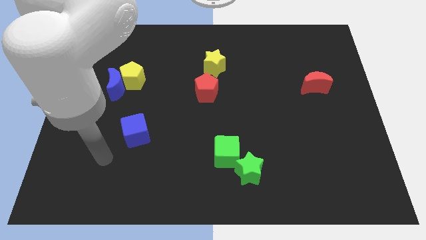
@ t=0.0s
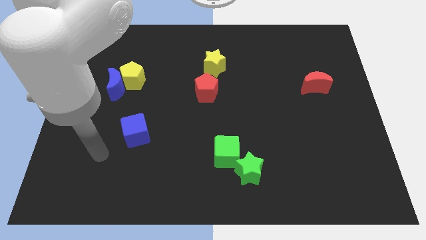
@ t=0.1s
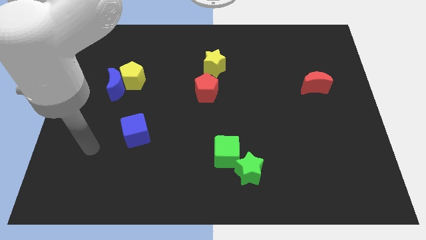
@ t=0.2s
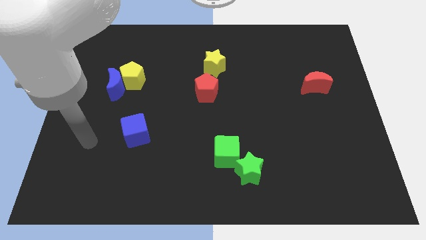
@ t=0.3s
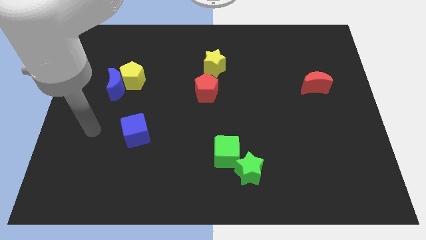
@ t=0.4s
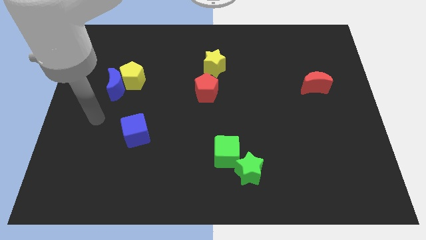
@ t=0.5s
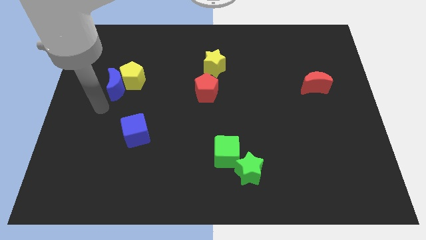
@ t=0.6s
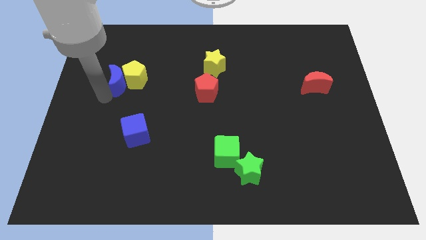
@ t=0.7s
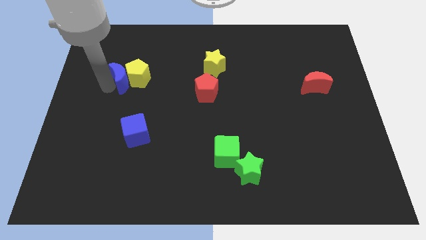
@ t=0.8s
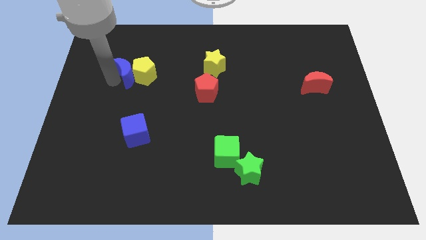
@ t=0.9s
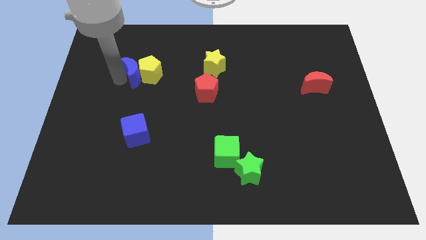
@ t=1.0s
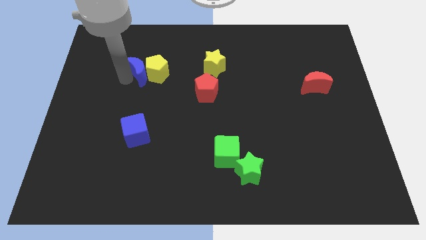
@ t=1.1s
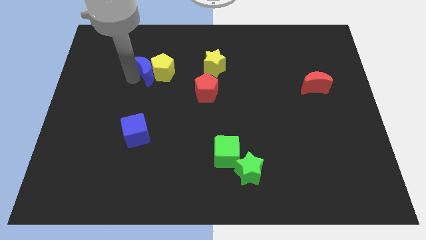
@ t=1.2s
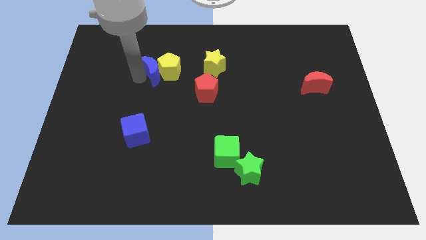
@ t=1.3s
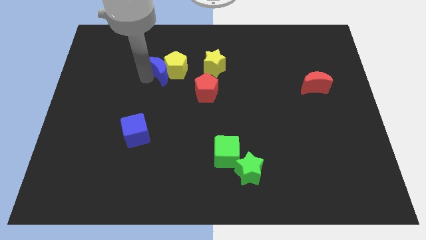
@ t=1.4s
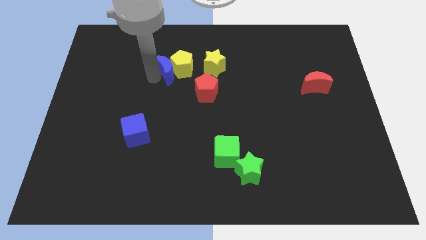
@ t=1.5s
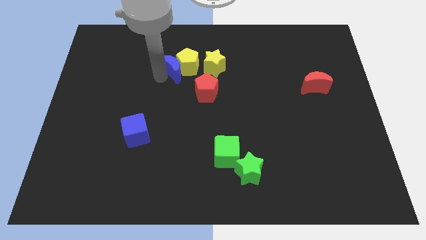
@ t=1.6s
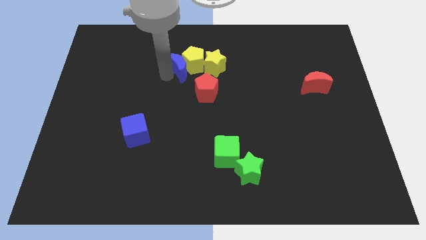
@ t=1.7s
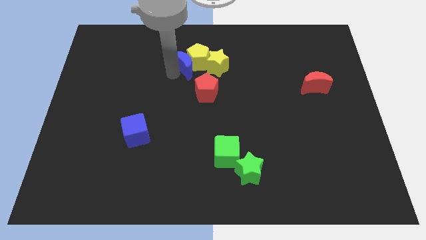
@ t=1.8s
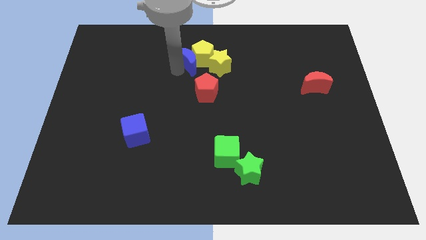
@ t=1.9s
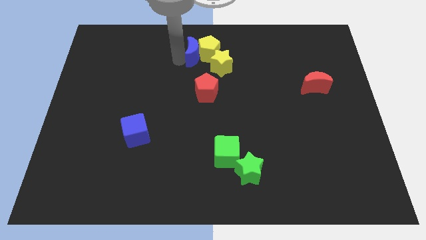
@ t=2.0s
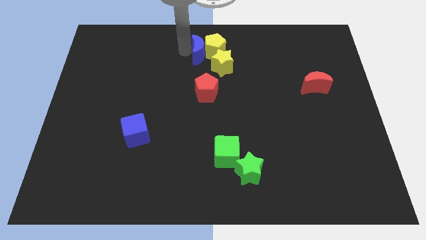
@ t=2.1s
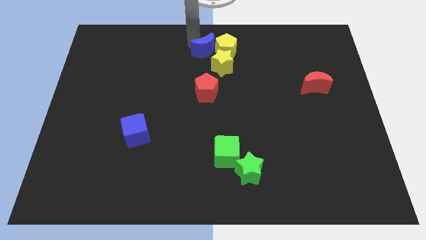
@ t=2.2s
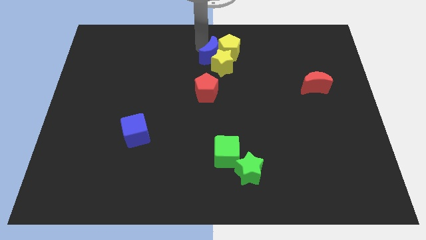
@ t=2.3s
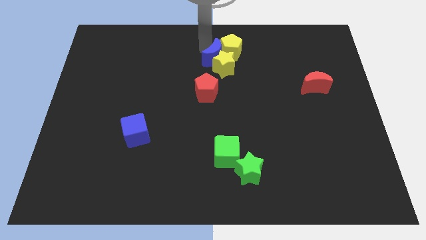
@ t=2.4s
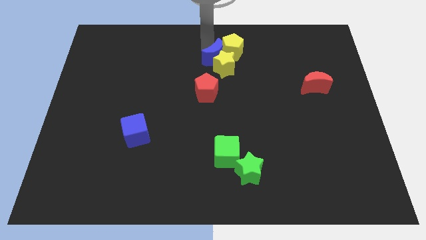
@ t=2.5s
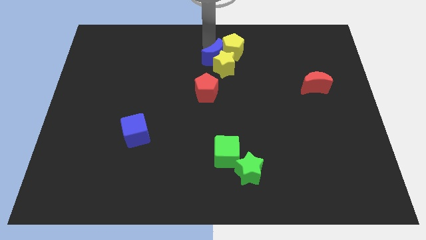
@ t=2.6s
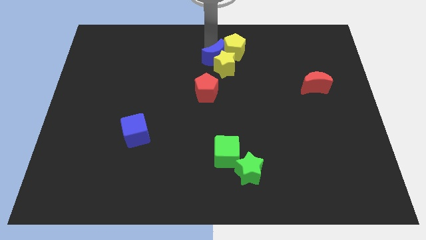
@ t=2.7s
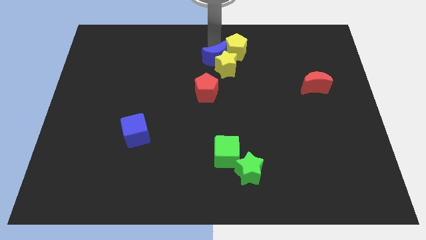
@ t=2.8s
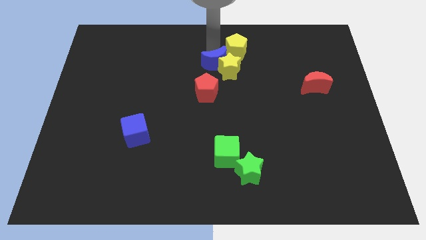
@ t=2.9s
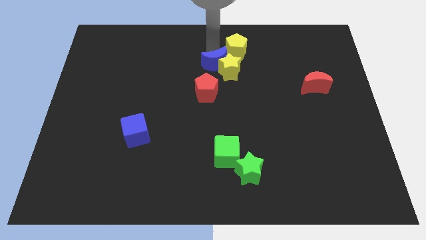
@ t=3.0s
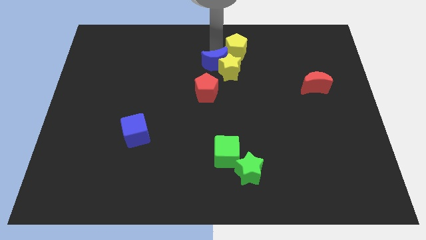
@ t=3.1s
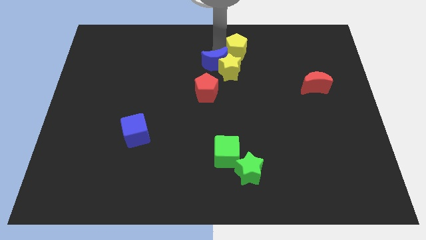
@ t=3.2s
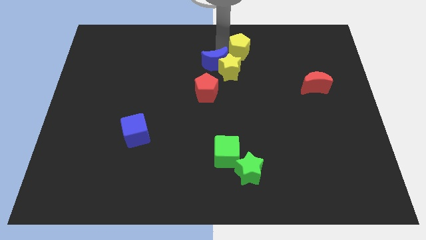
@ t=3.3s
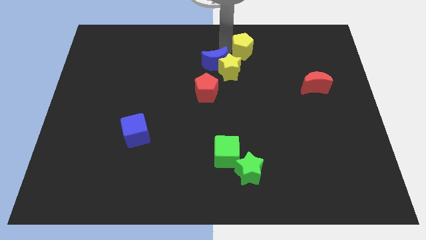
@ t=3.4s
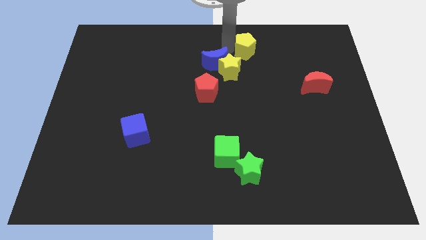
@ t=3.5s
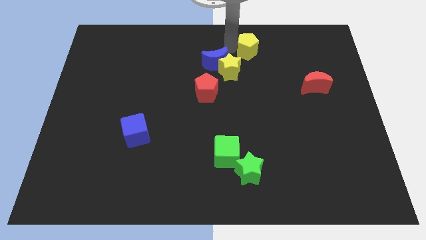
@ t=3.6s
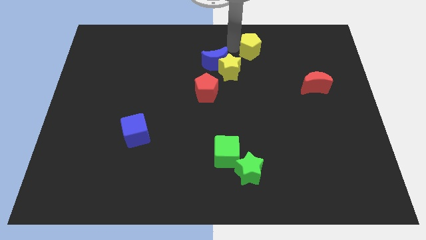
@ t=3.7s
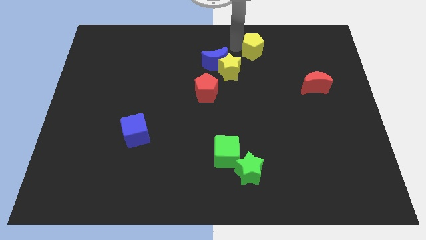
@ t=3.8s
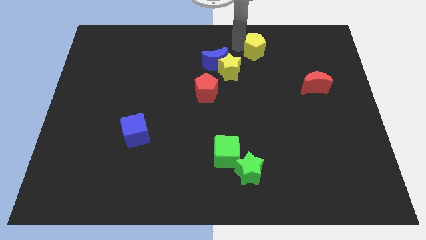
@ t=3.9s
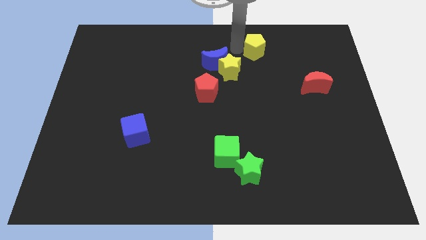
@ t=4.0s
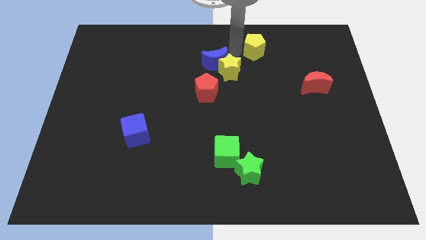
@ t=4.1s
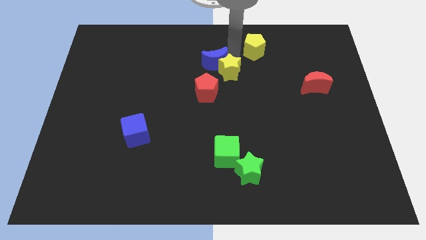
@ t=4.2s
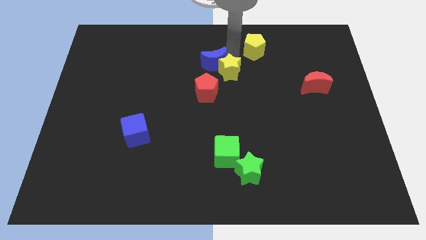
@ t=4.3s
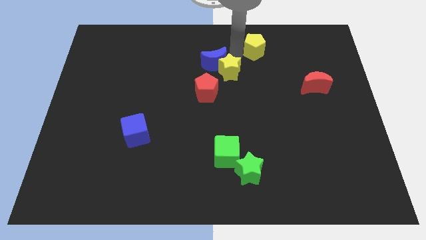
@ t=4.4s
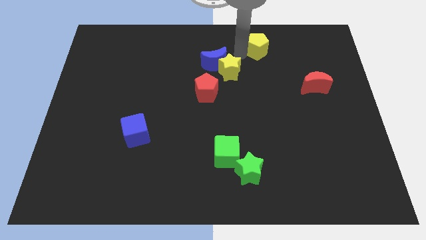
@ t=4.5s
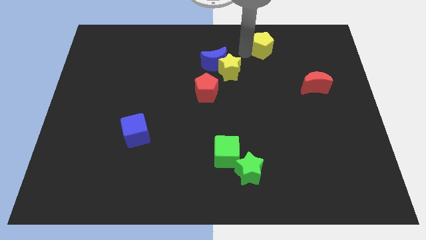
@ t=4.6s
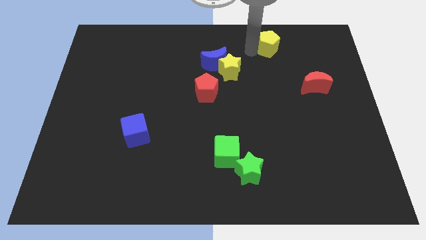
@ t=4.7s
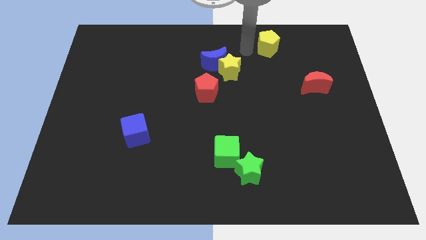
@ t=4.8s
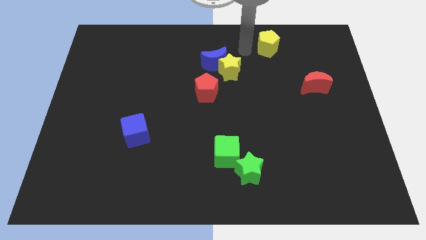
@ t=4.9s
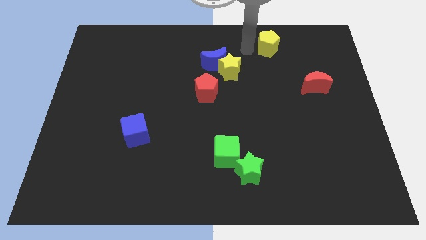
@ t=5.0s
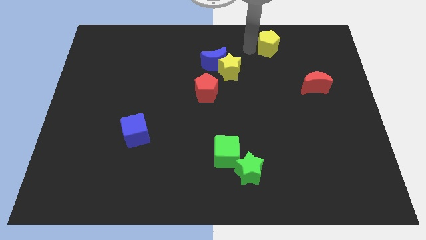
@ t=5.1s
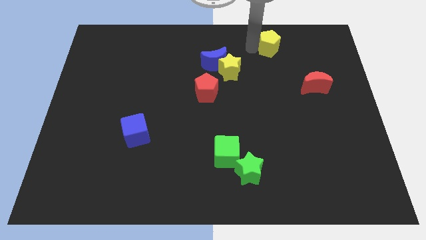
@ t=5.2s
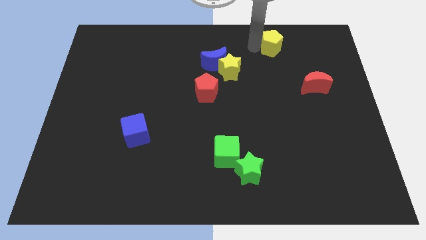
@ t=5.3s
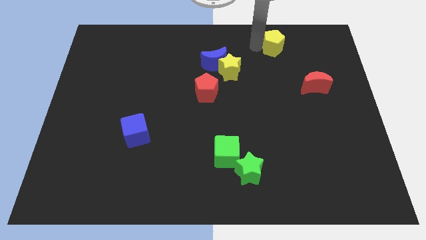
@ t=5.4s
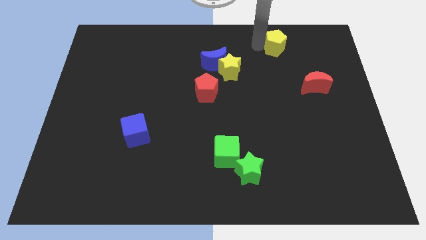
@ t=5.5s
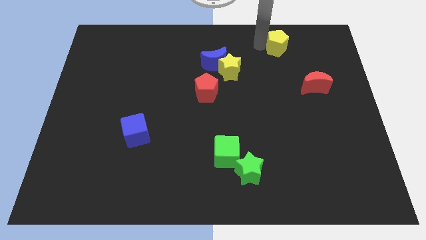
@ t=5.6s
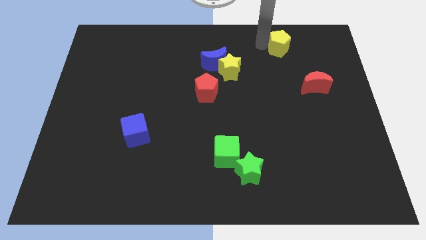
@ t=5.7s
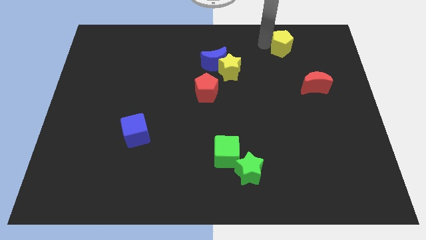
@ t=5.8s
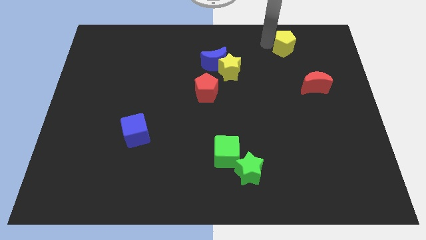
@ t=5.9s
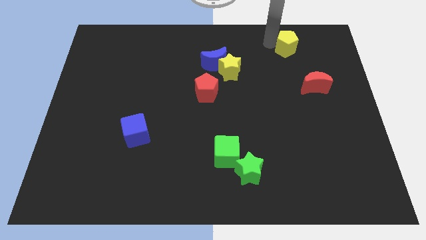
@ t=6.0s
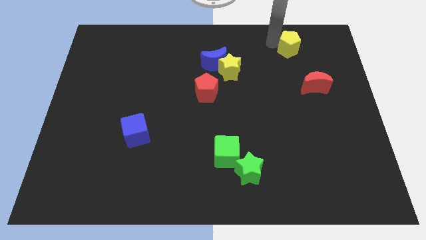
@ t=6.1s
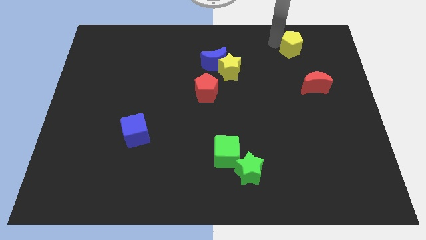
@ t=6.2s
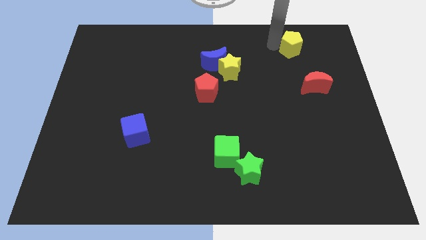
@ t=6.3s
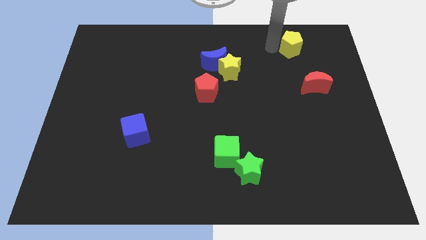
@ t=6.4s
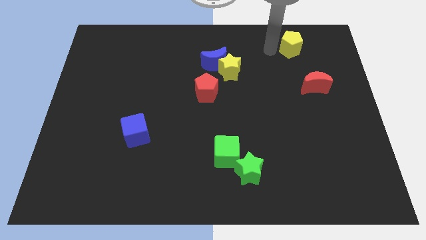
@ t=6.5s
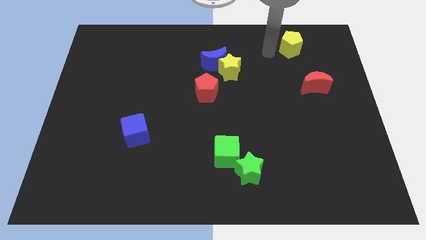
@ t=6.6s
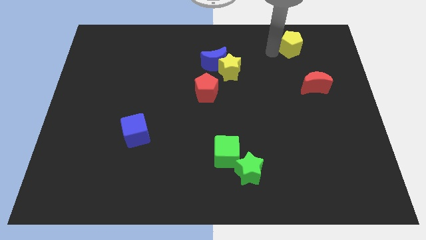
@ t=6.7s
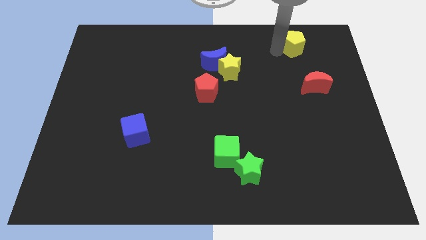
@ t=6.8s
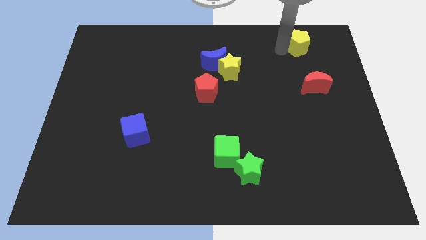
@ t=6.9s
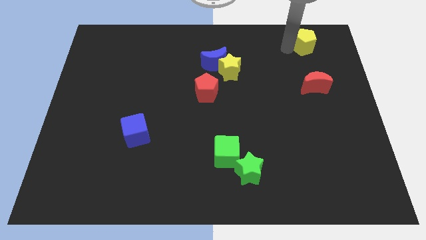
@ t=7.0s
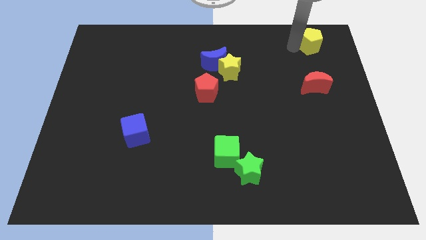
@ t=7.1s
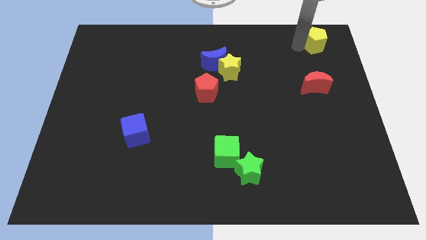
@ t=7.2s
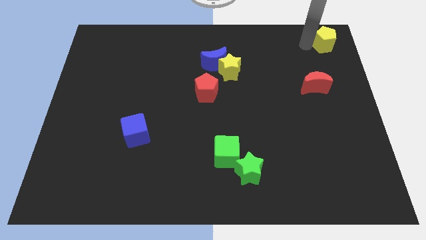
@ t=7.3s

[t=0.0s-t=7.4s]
push the yellow pentagon to the top right
